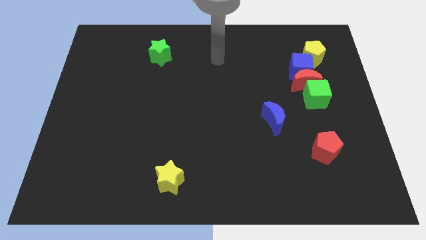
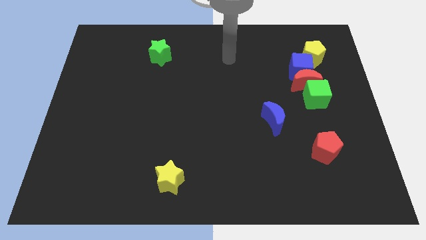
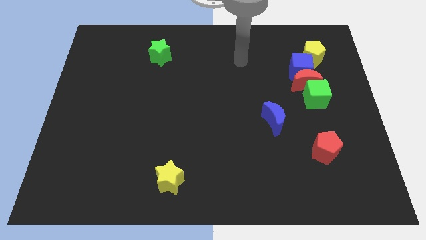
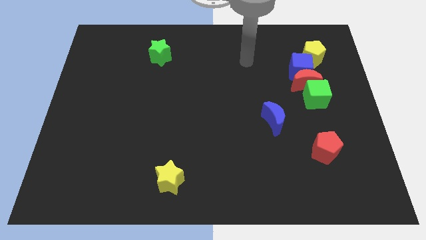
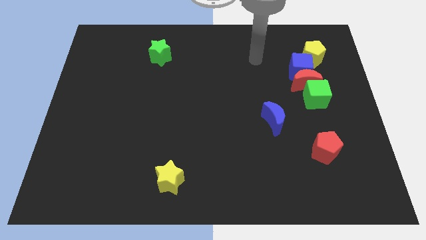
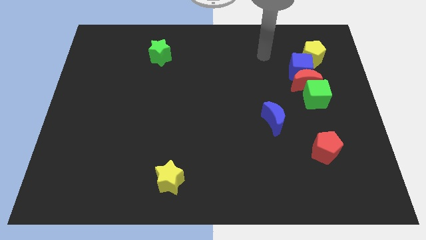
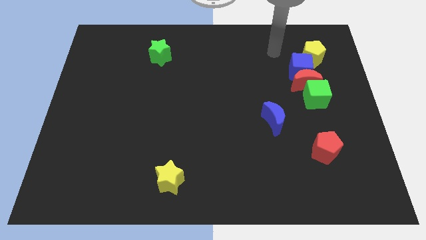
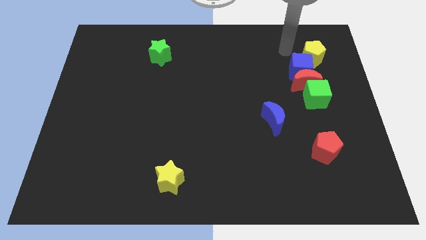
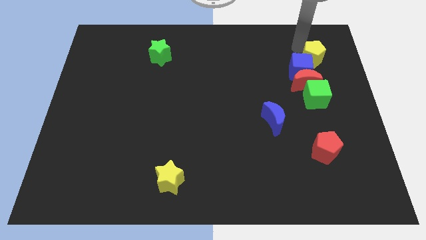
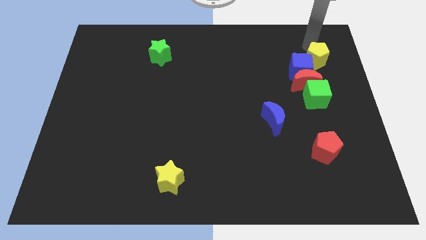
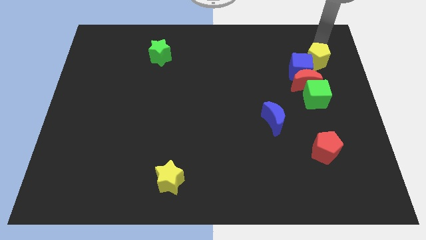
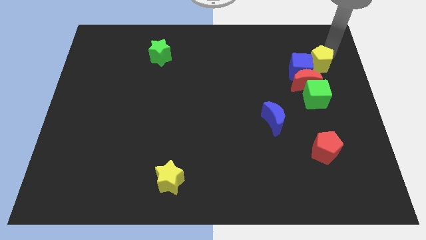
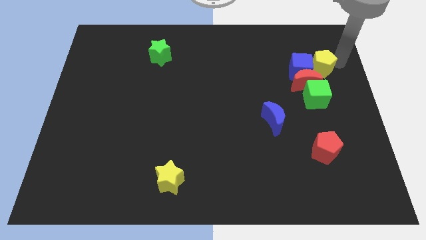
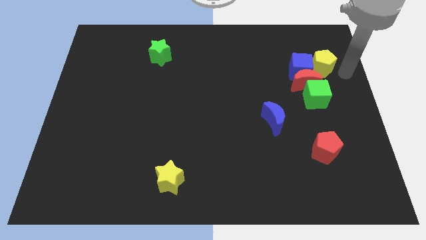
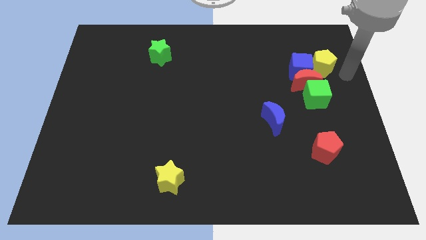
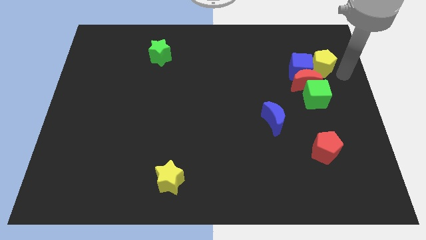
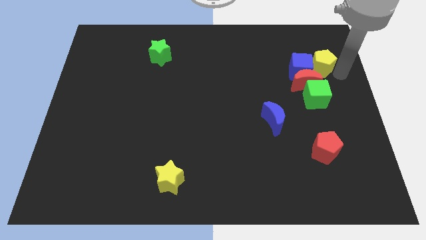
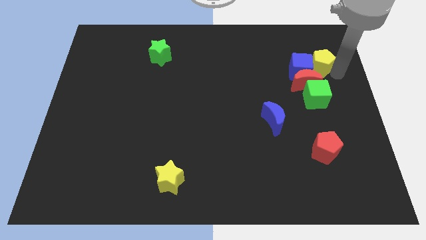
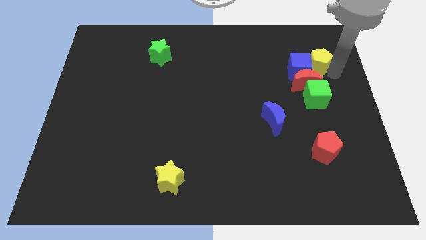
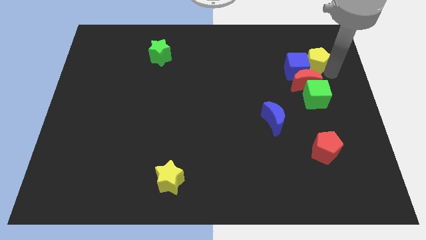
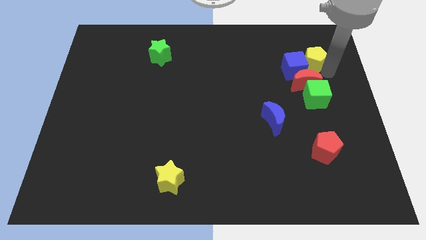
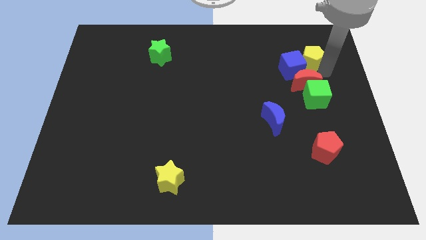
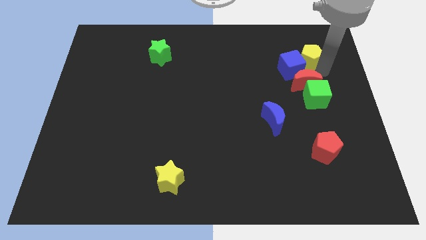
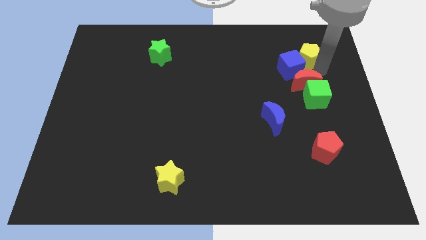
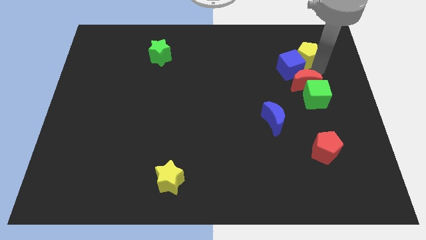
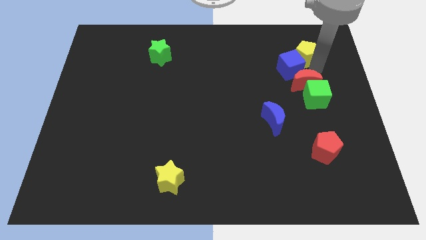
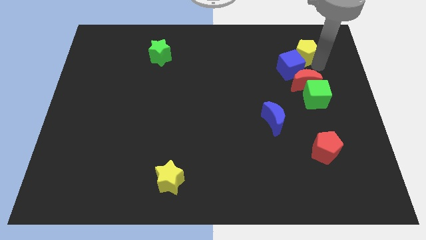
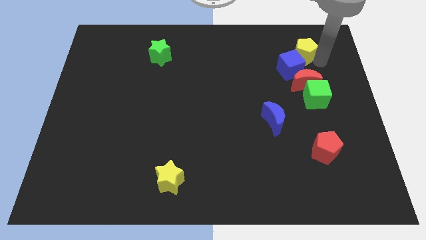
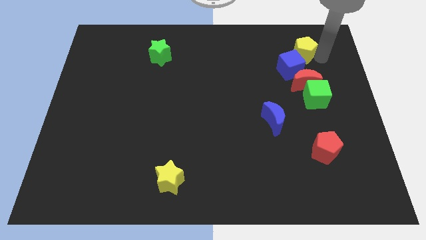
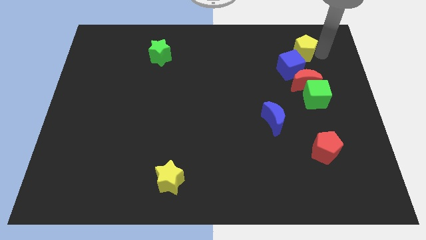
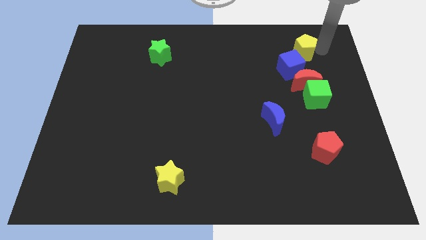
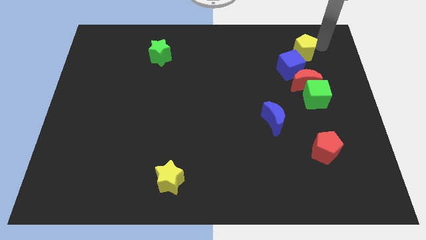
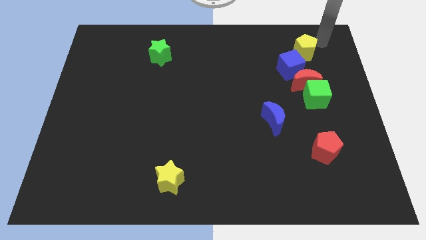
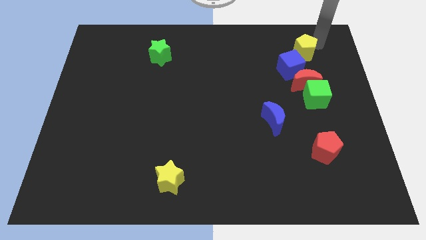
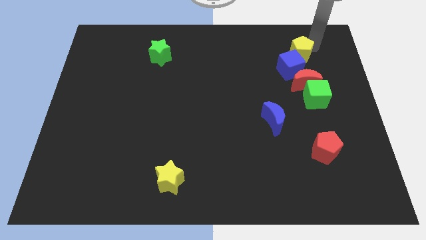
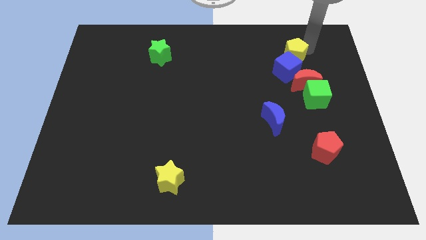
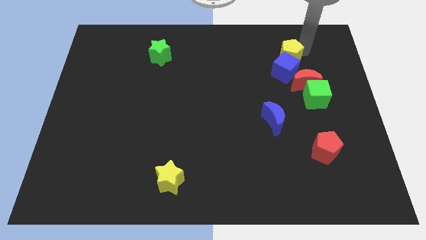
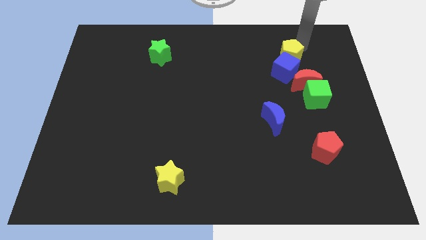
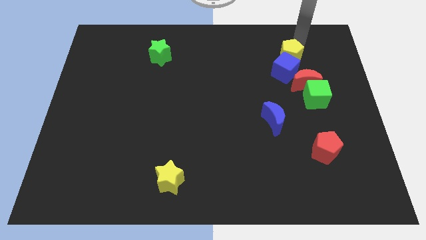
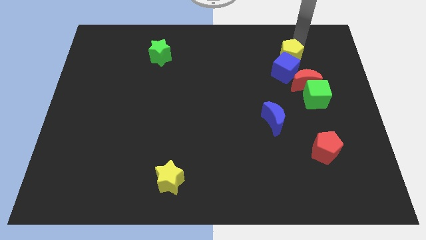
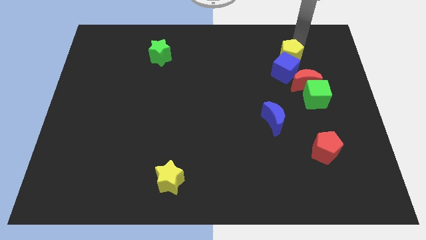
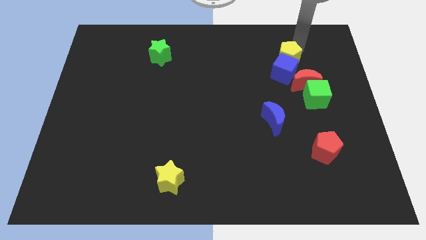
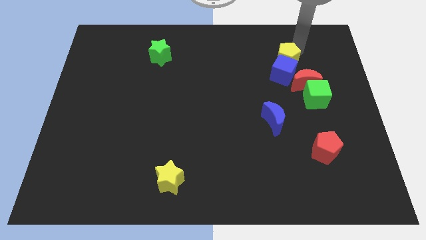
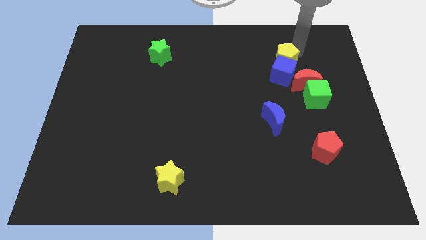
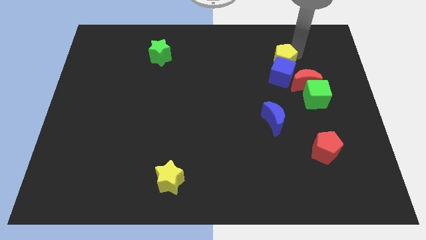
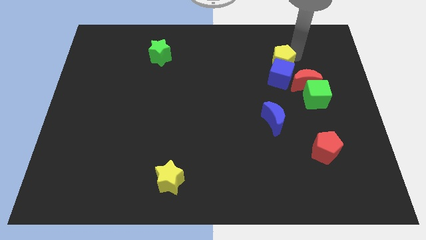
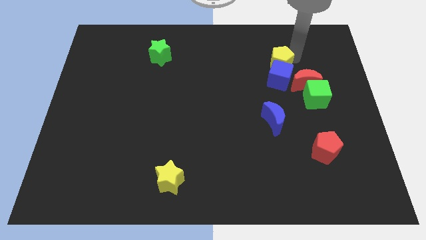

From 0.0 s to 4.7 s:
slide the yellow pentagon slightly down and to the left diagonally

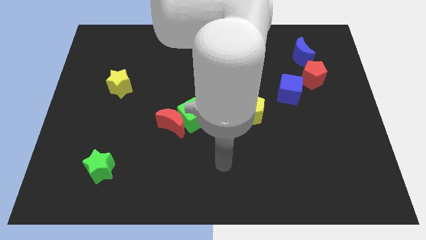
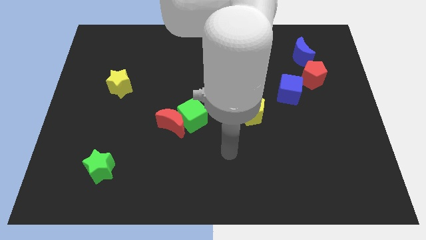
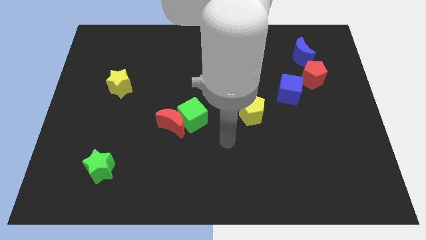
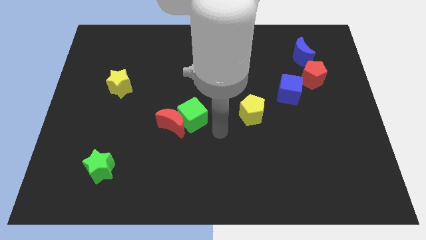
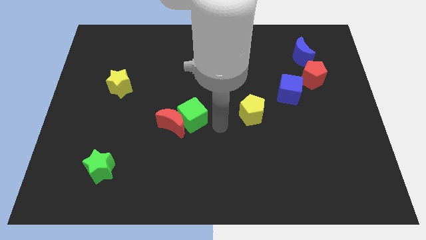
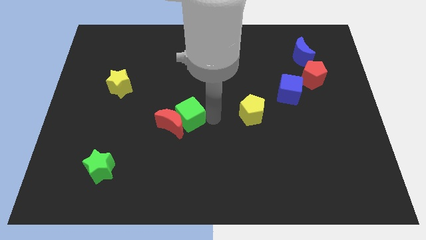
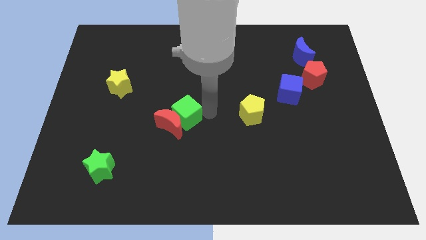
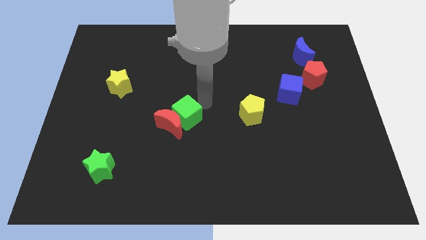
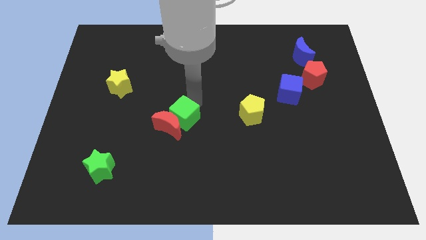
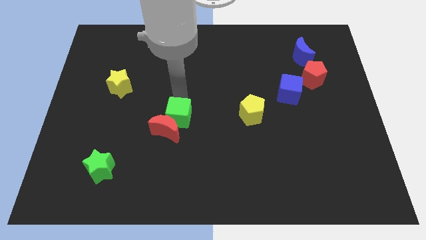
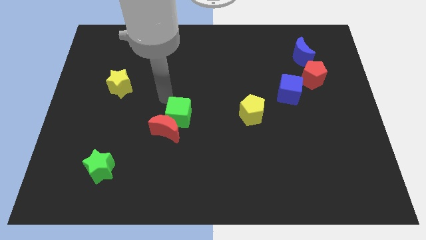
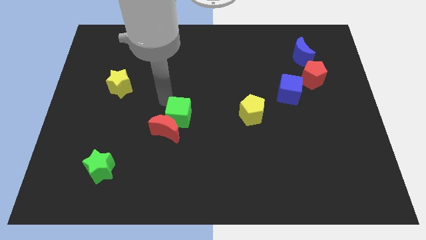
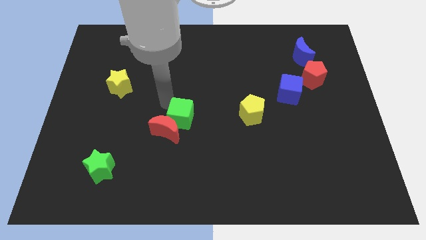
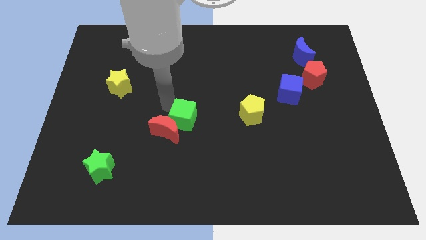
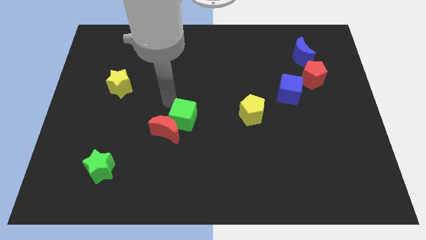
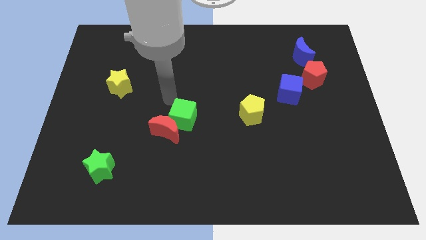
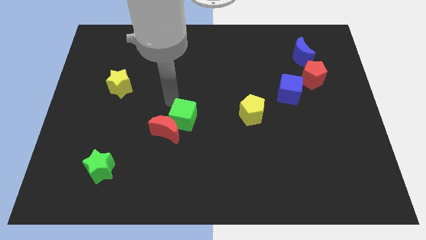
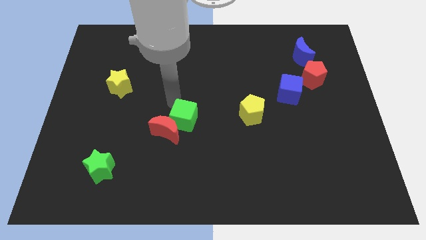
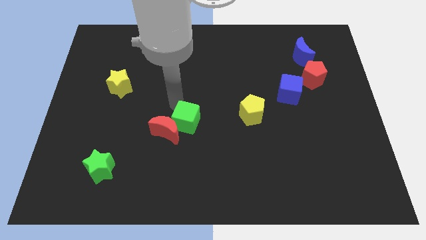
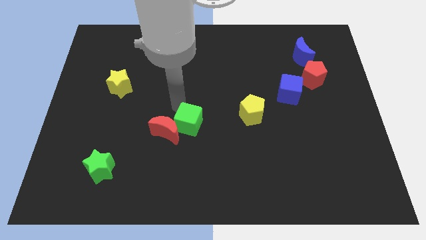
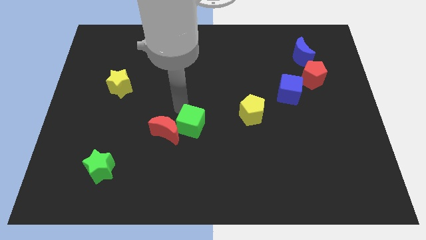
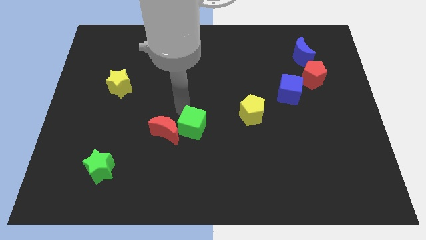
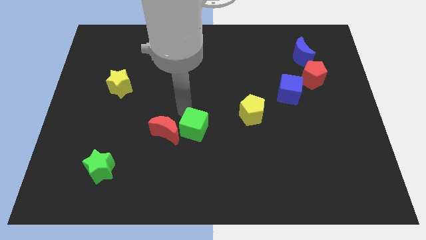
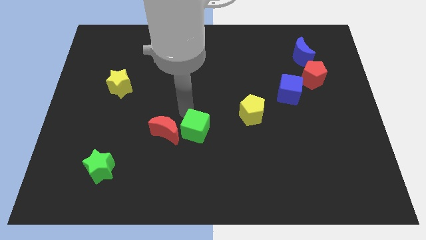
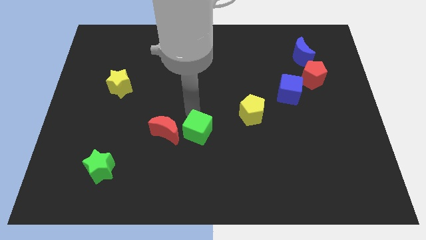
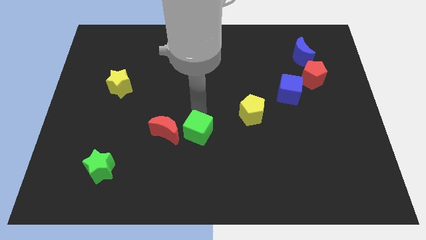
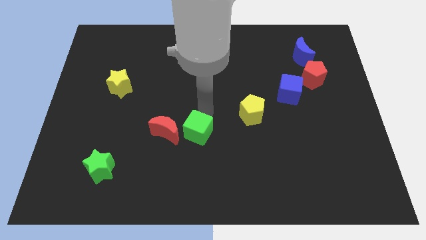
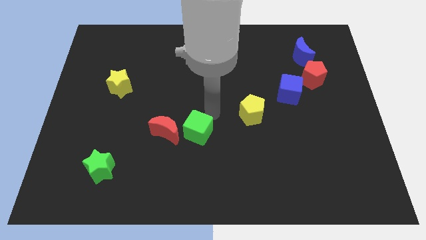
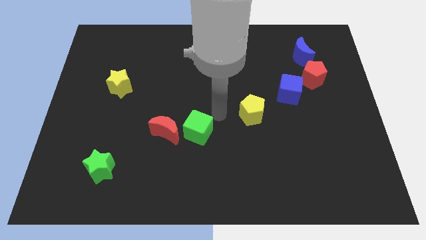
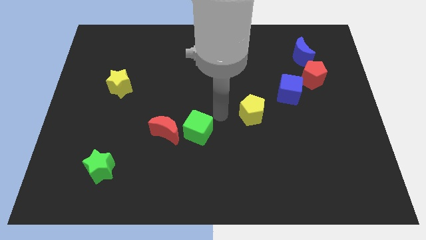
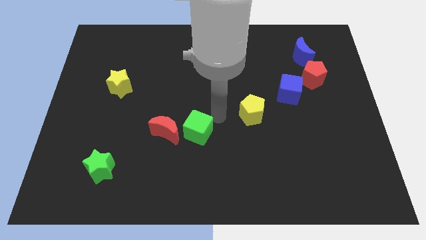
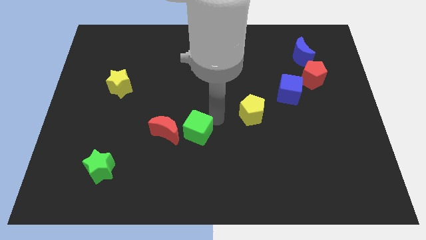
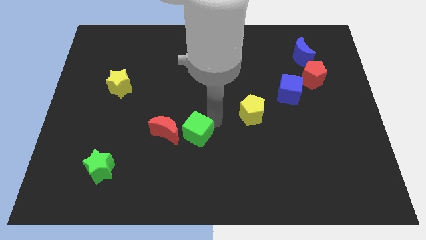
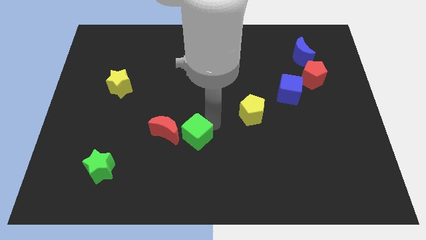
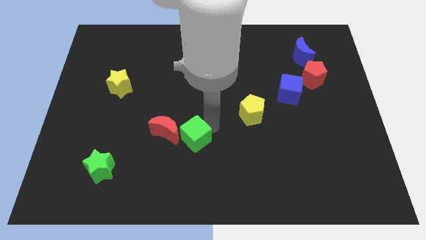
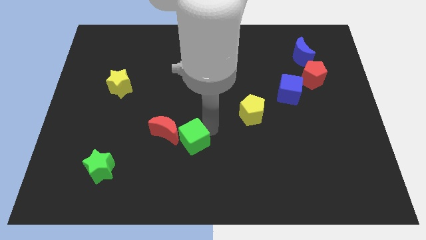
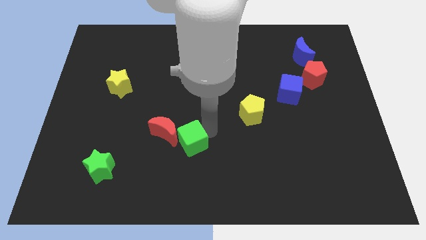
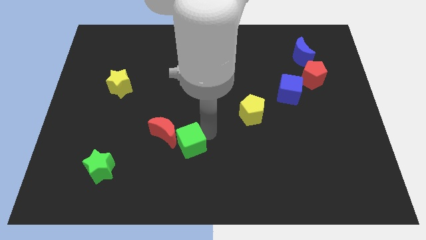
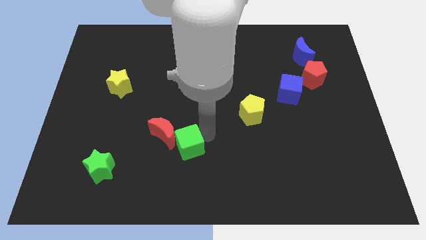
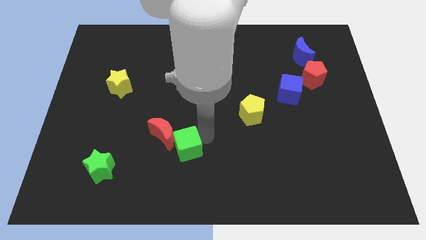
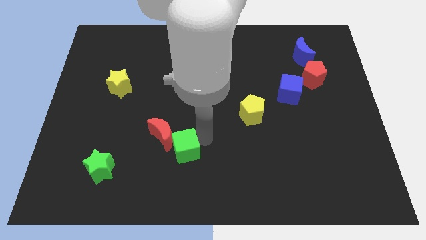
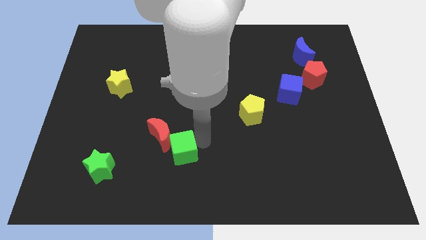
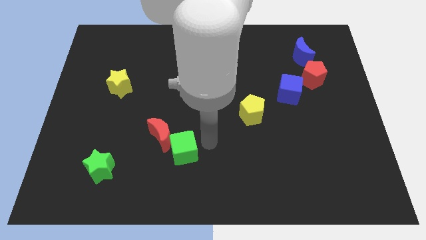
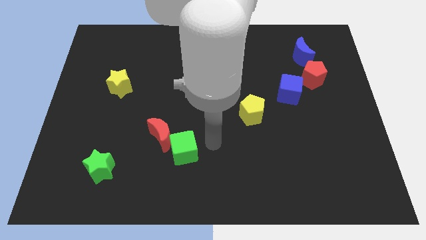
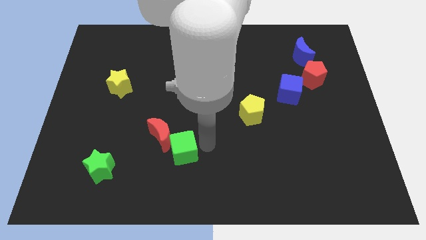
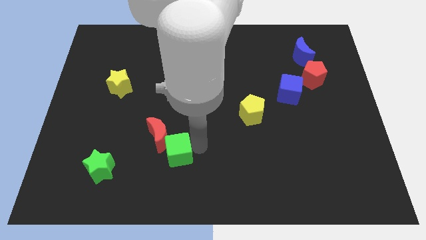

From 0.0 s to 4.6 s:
slightly slide the green cube downwards and to the left
